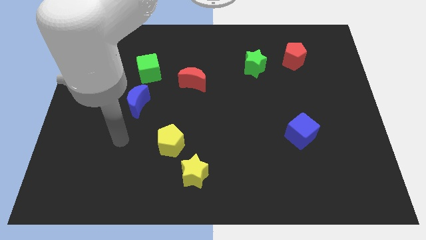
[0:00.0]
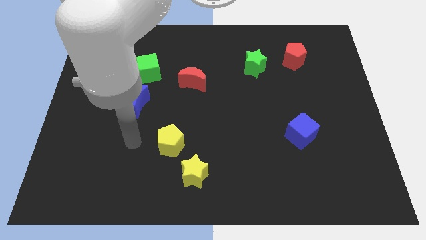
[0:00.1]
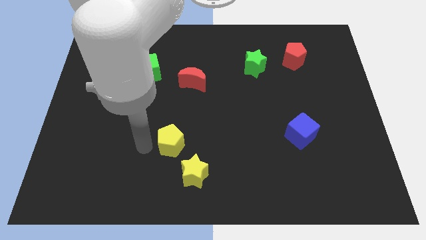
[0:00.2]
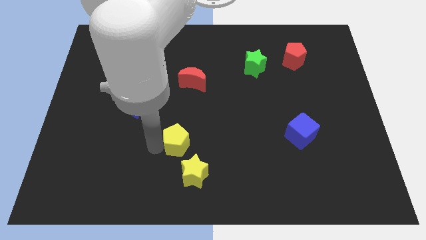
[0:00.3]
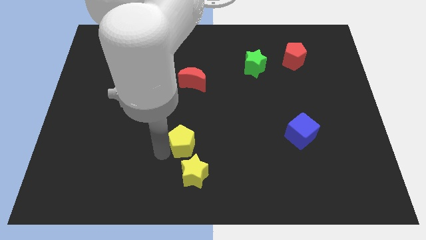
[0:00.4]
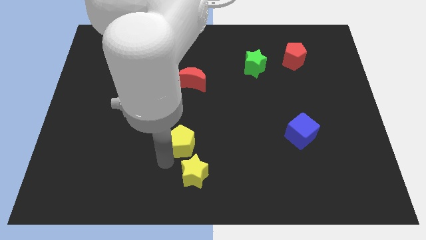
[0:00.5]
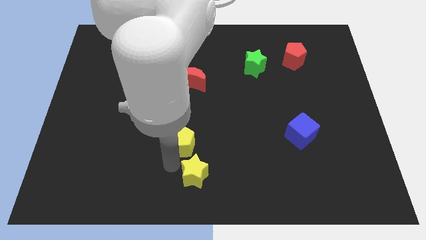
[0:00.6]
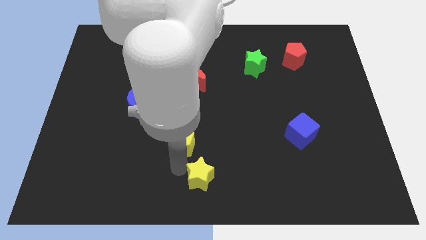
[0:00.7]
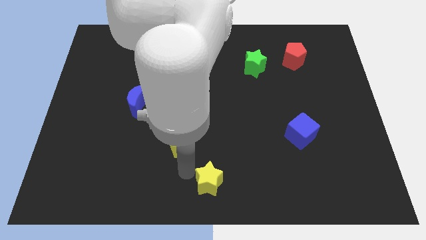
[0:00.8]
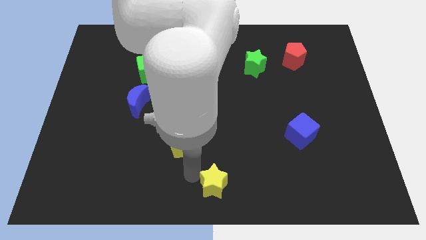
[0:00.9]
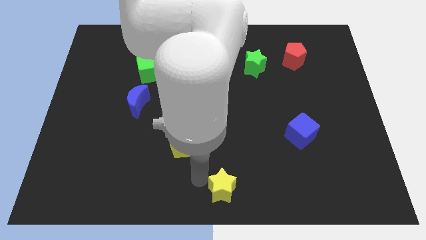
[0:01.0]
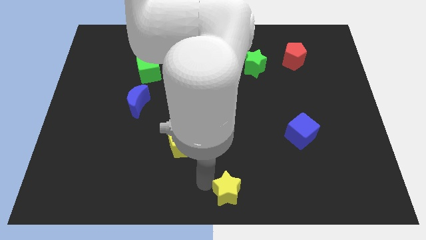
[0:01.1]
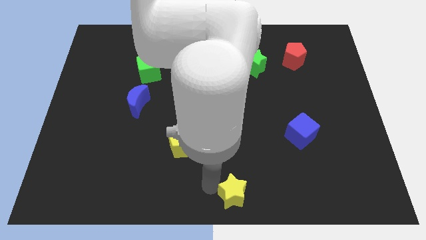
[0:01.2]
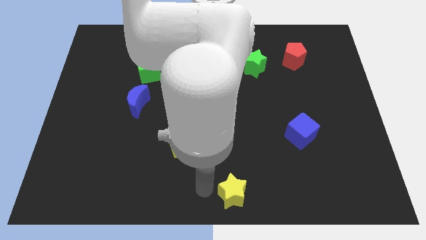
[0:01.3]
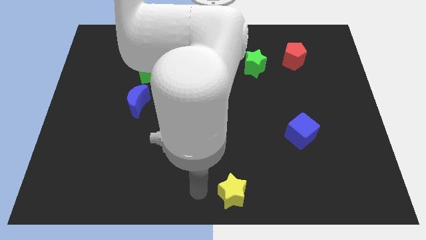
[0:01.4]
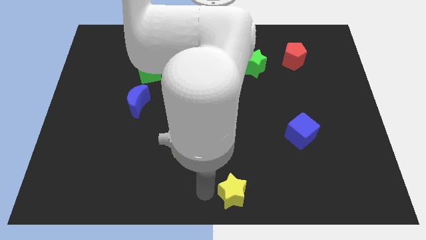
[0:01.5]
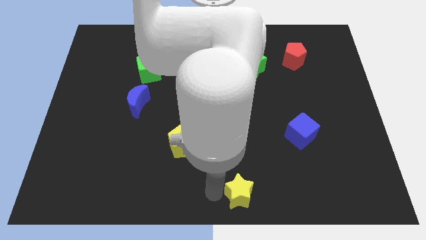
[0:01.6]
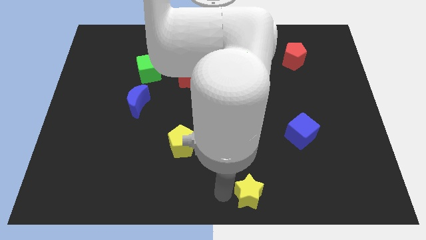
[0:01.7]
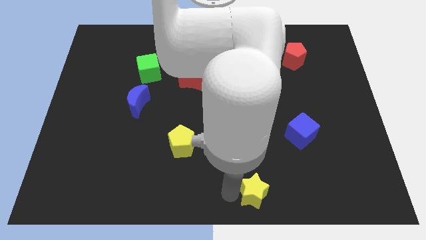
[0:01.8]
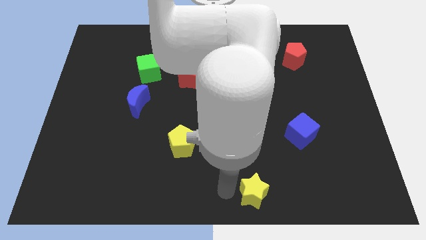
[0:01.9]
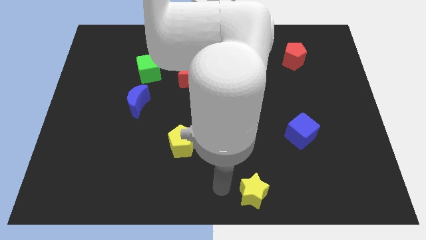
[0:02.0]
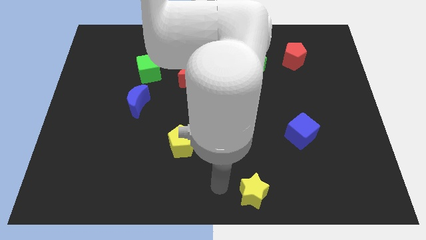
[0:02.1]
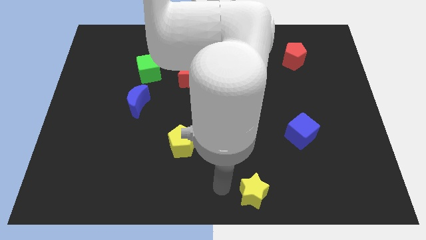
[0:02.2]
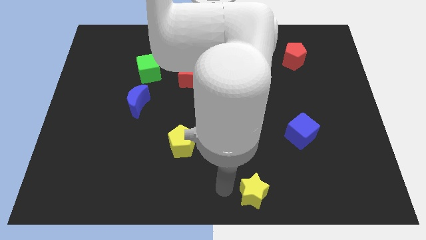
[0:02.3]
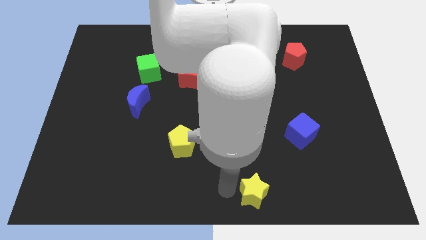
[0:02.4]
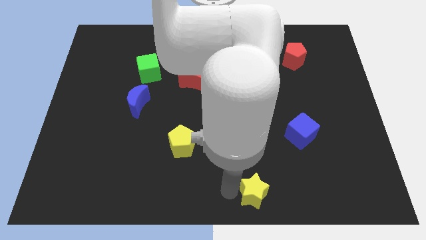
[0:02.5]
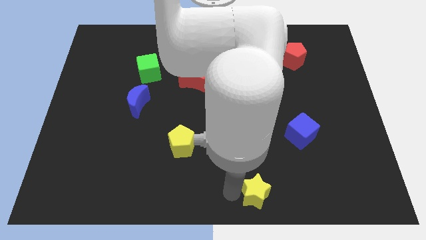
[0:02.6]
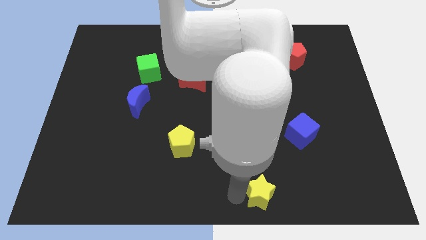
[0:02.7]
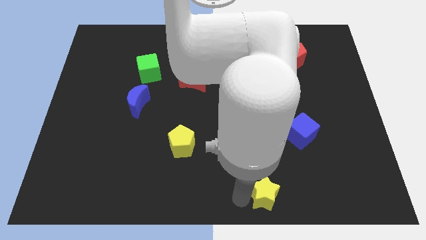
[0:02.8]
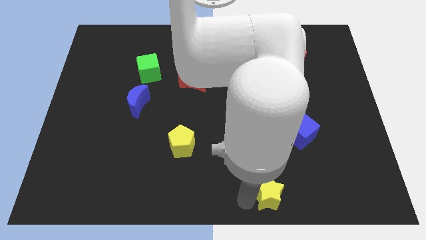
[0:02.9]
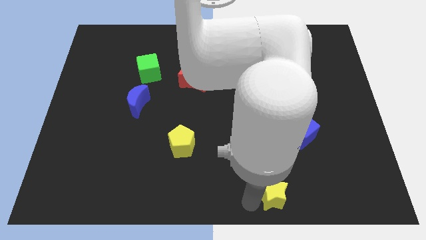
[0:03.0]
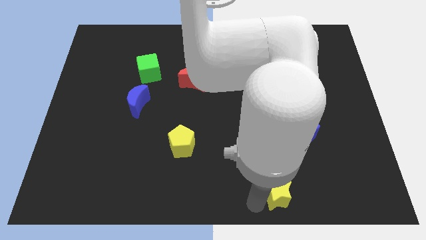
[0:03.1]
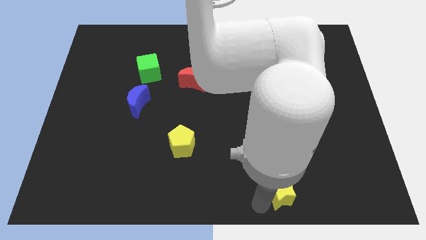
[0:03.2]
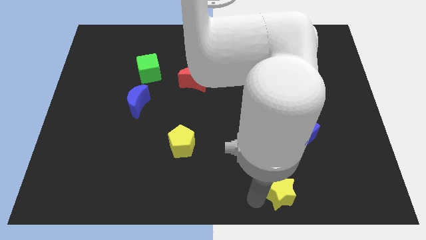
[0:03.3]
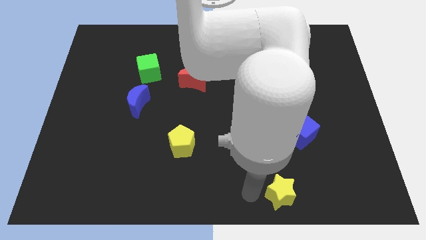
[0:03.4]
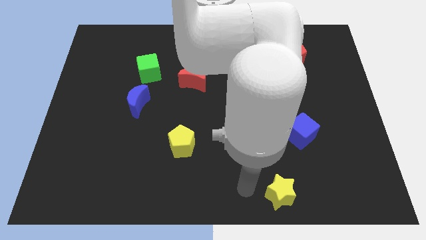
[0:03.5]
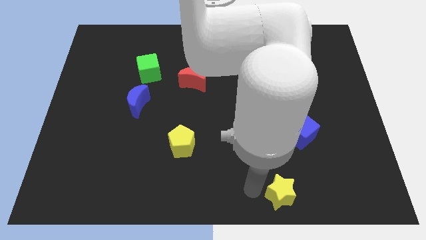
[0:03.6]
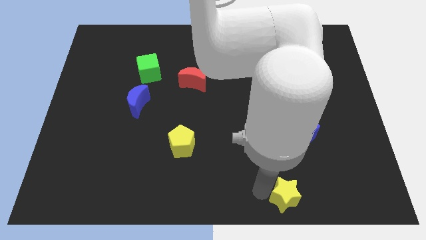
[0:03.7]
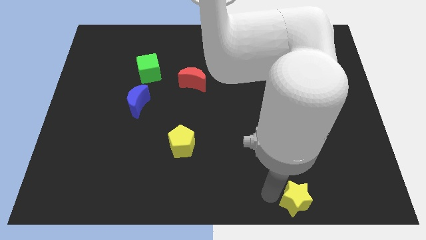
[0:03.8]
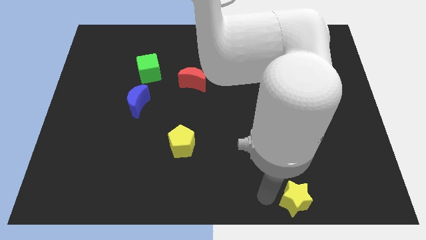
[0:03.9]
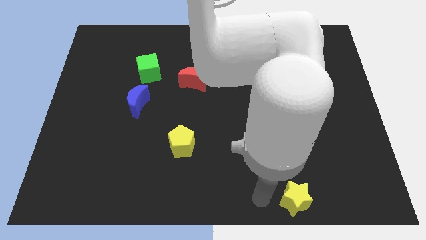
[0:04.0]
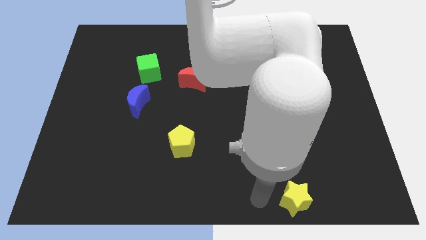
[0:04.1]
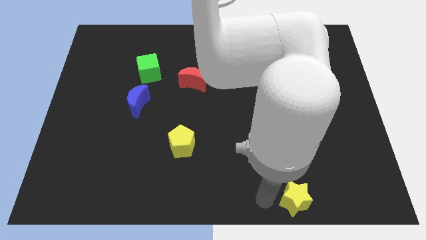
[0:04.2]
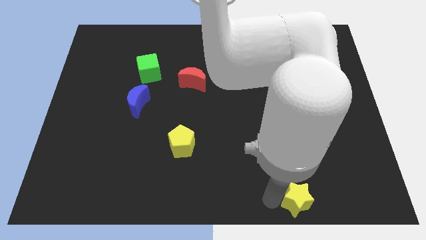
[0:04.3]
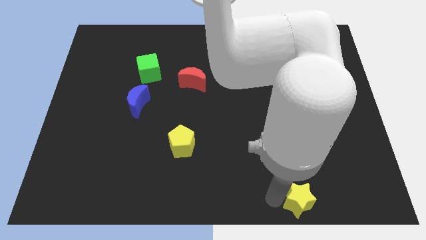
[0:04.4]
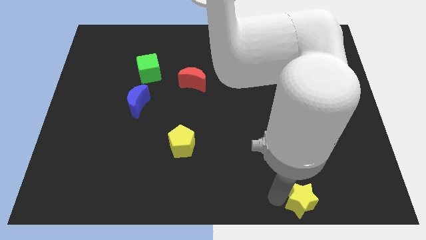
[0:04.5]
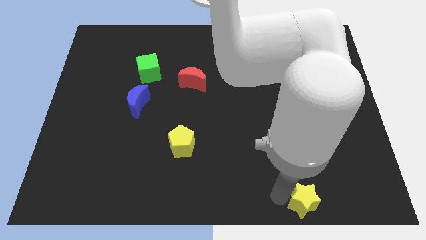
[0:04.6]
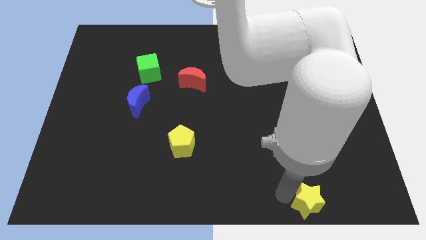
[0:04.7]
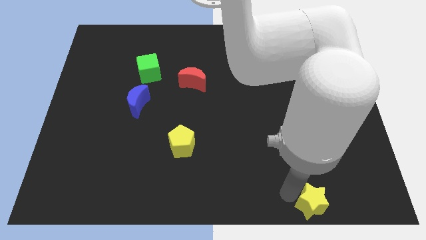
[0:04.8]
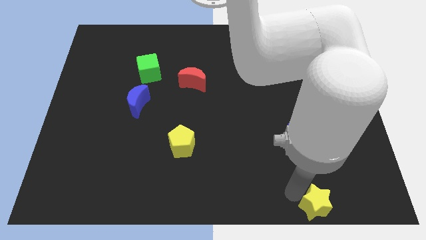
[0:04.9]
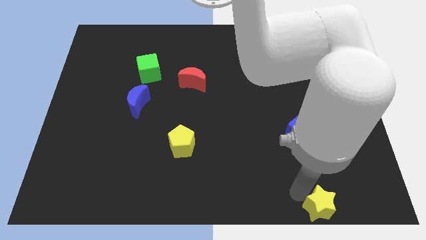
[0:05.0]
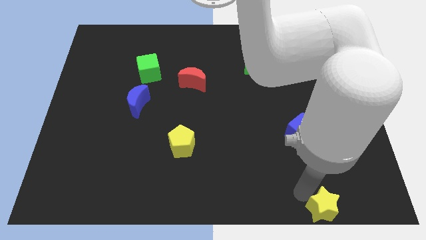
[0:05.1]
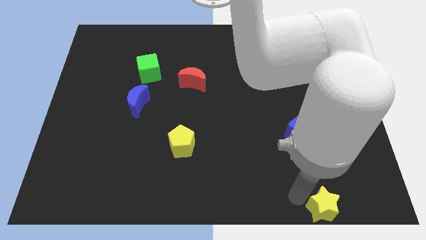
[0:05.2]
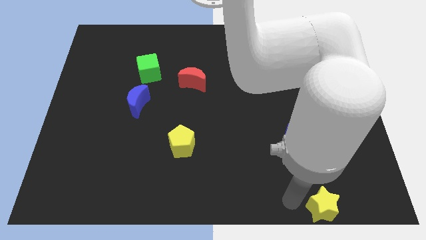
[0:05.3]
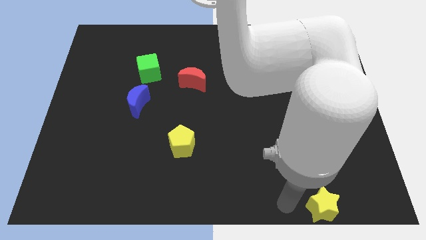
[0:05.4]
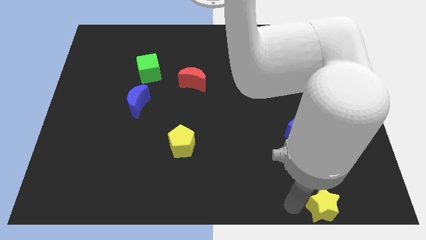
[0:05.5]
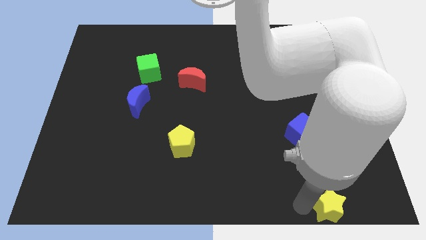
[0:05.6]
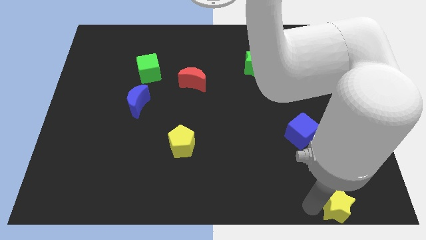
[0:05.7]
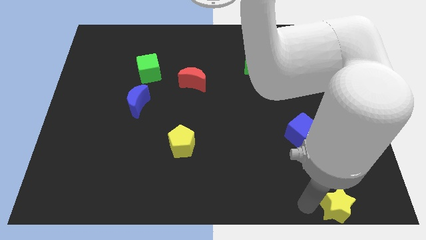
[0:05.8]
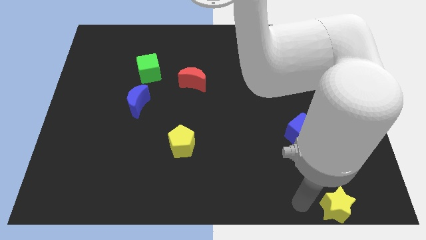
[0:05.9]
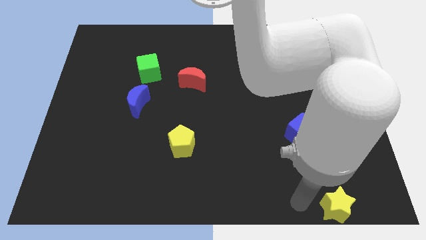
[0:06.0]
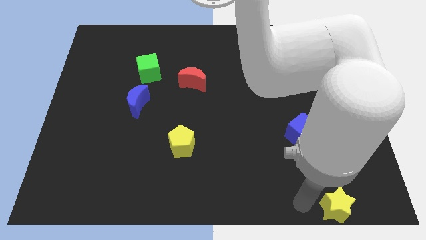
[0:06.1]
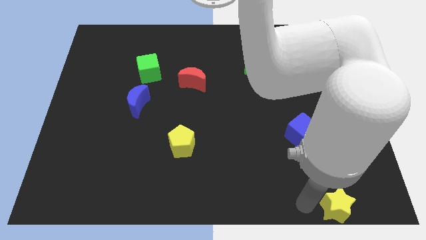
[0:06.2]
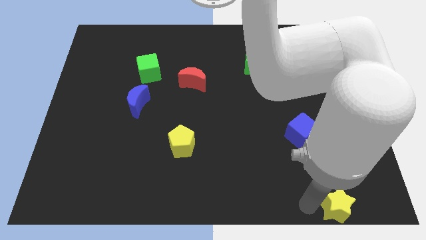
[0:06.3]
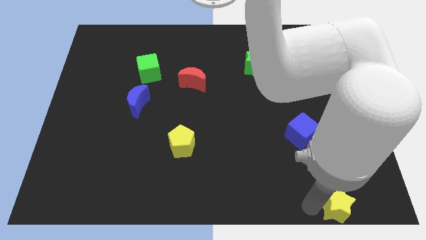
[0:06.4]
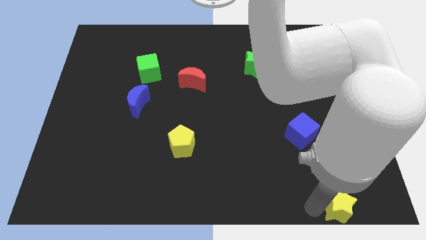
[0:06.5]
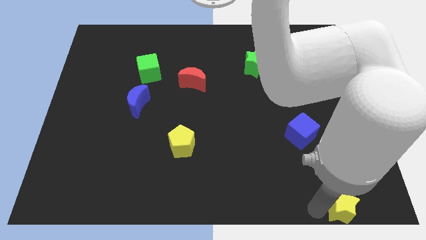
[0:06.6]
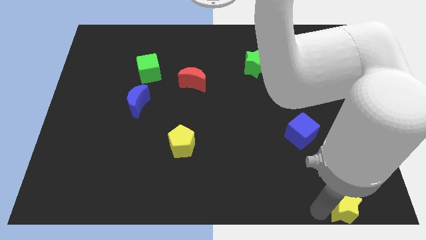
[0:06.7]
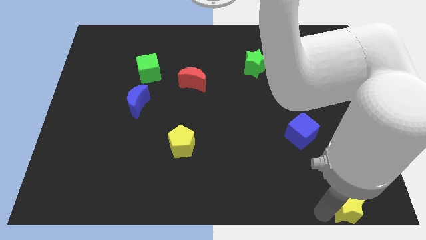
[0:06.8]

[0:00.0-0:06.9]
move the yellow star to the bottom right corner
